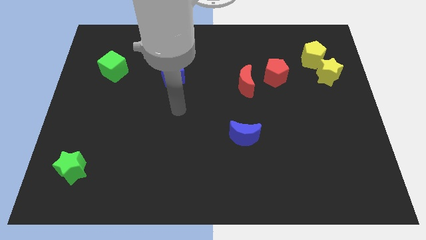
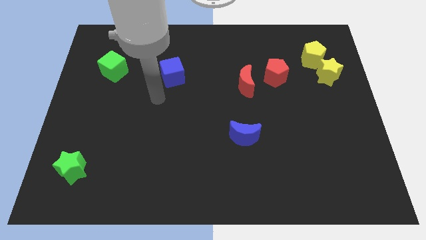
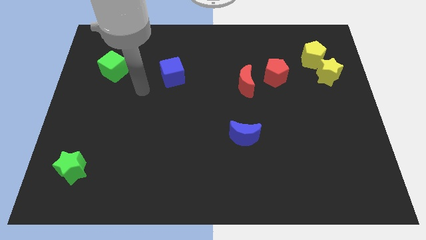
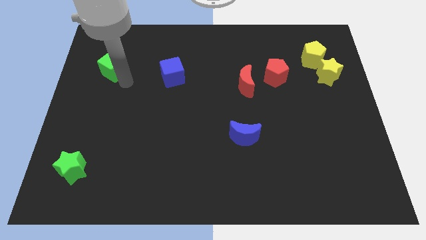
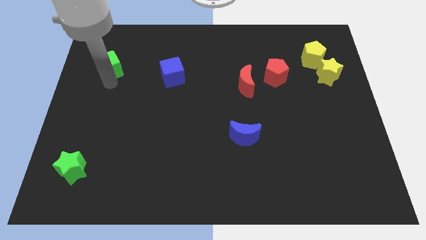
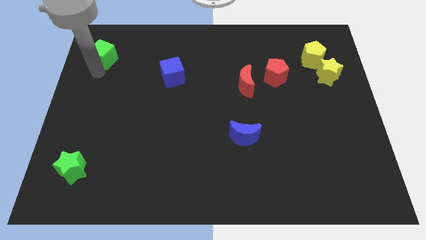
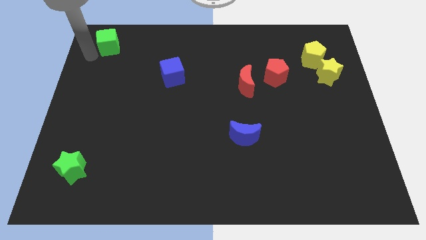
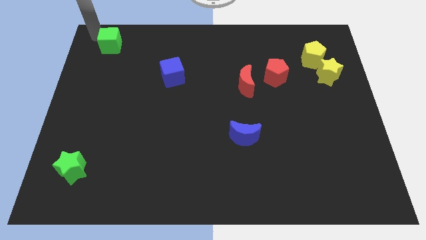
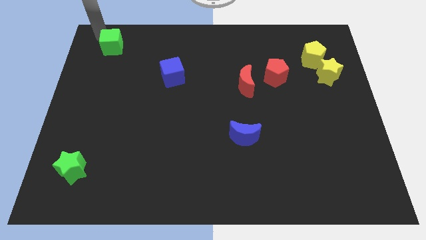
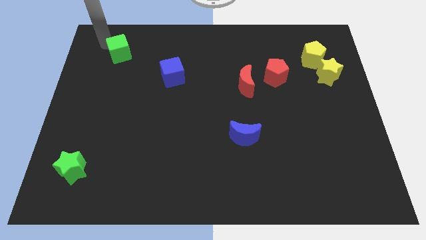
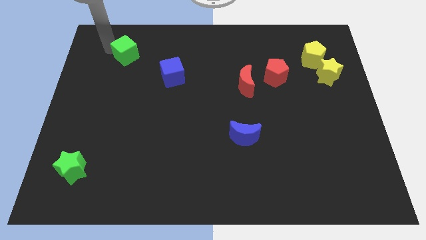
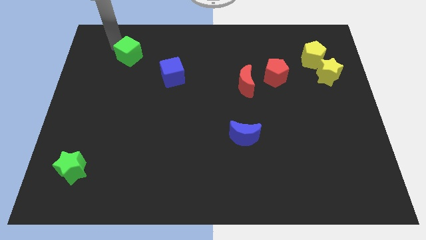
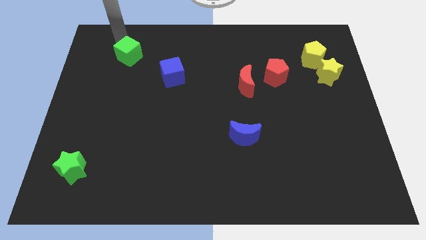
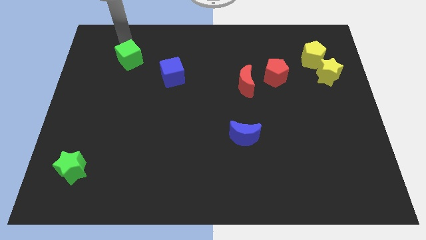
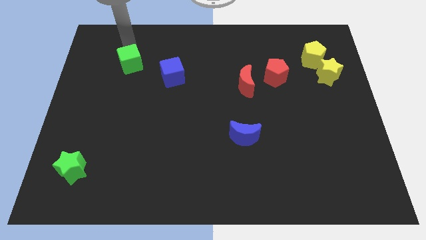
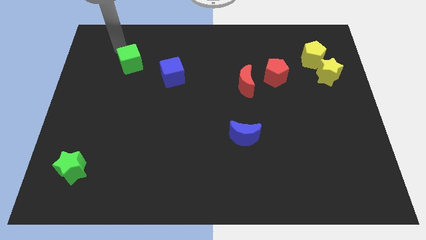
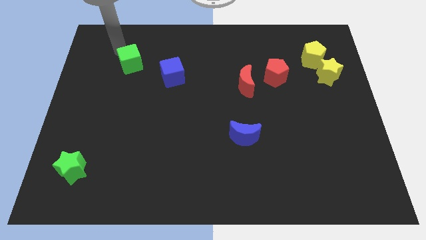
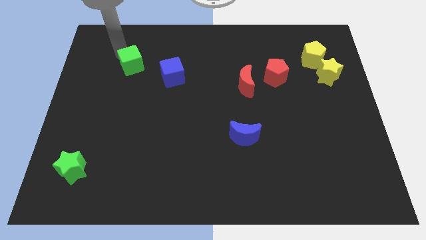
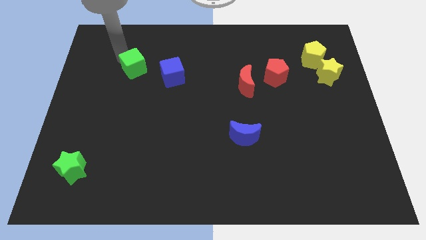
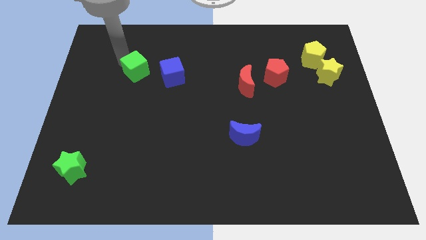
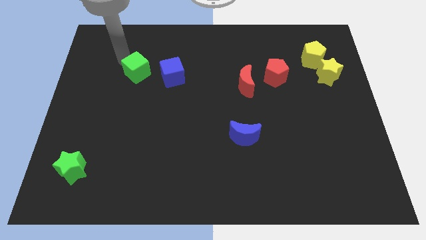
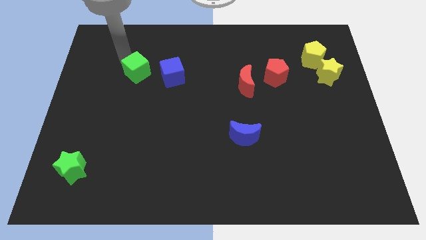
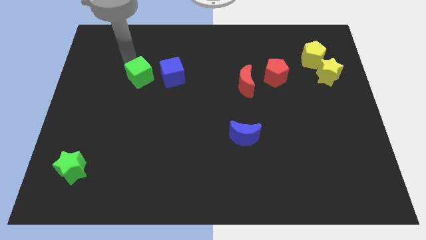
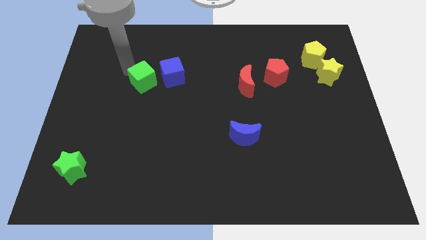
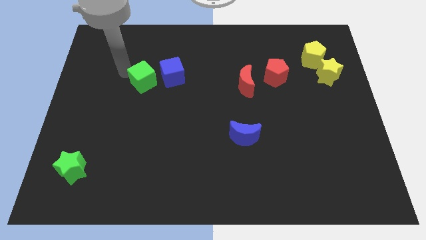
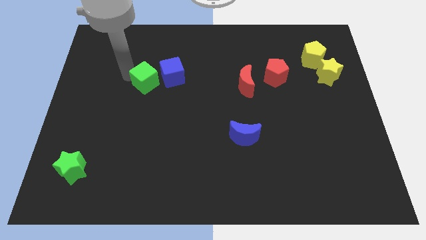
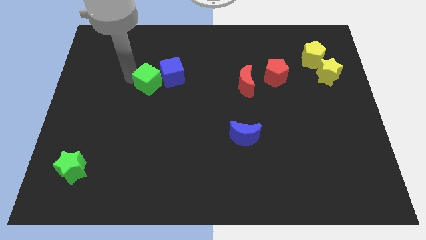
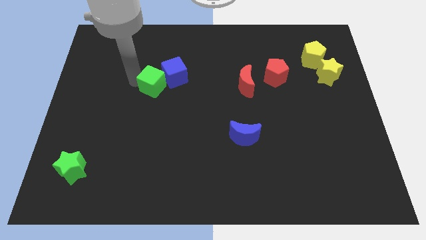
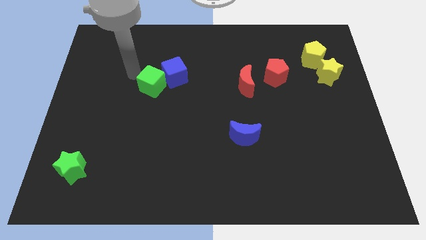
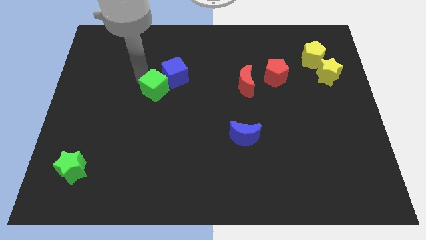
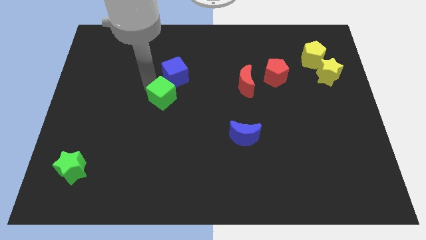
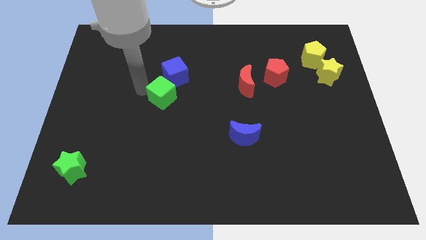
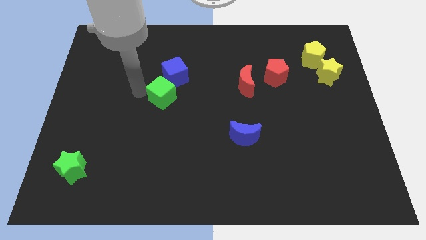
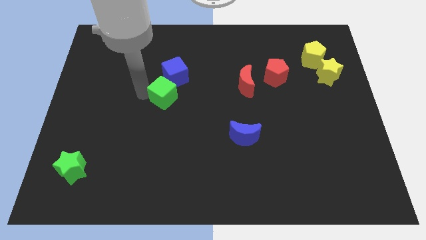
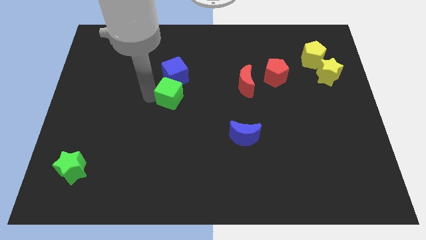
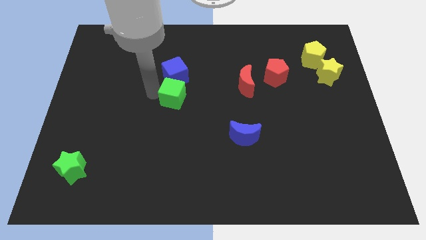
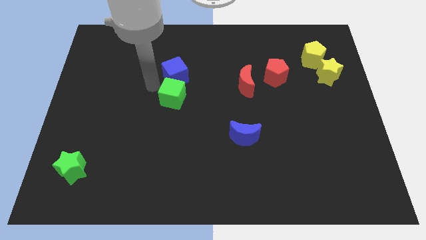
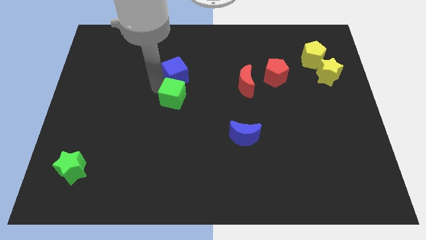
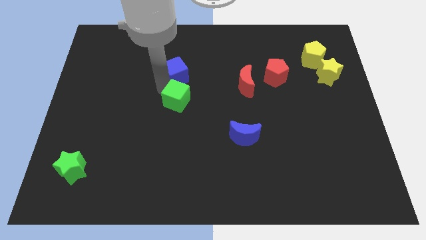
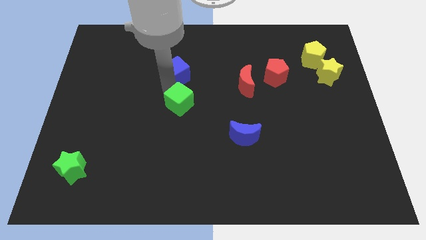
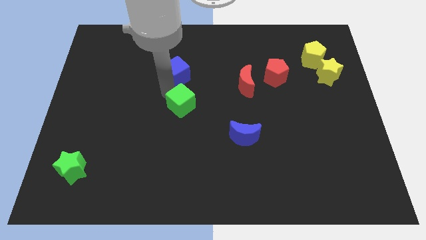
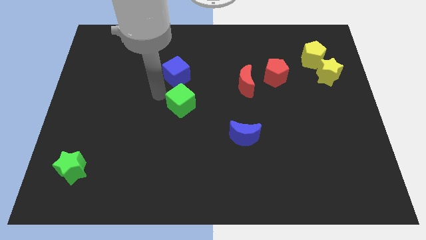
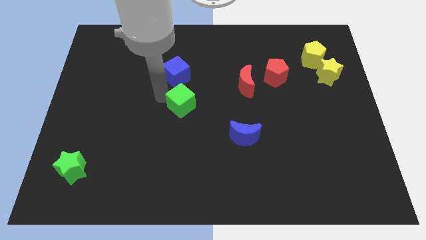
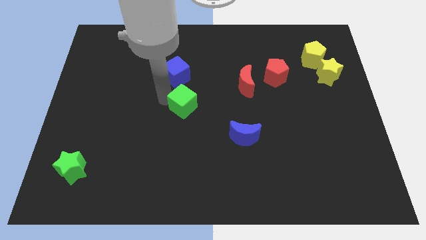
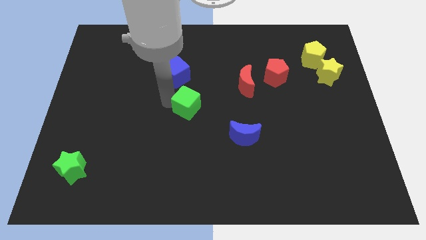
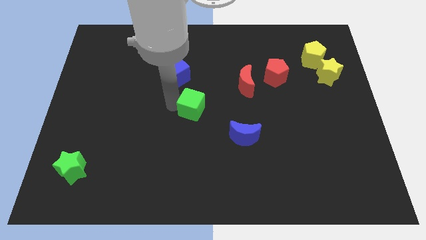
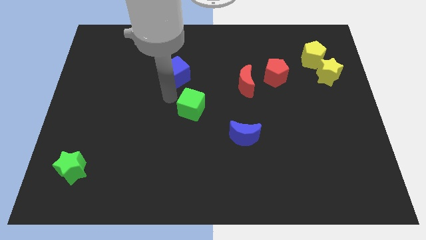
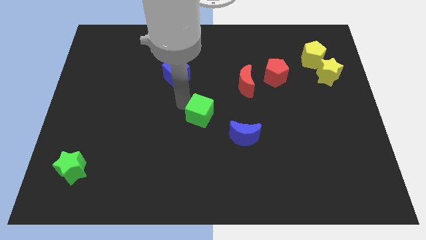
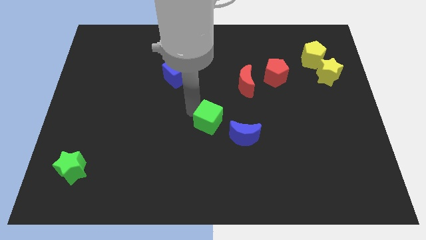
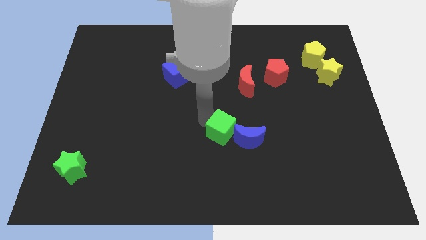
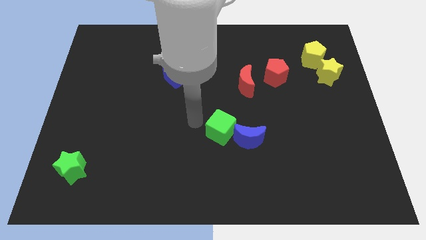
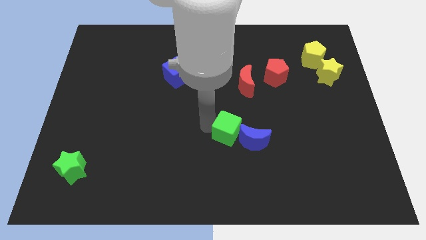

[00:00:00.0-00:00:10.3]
put the green cube to the blue moon

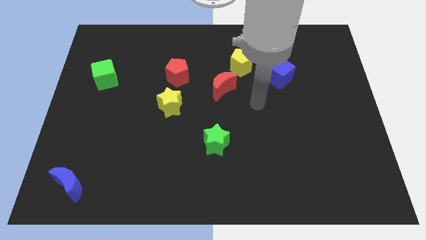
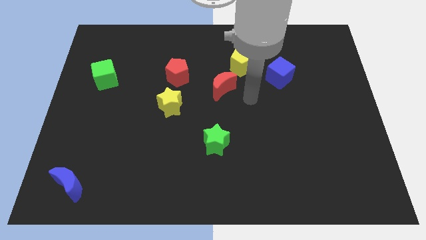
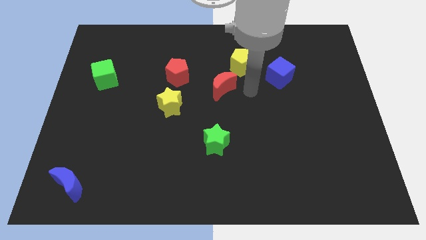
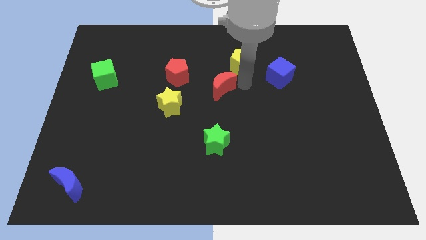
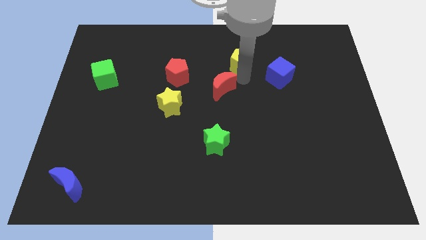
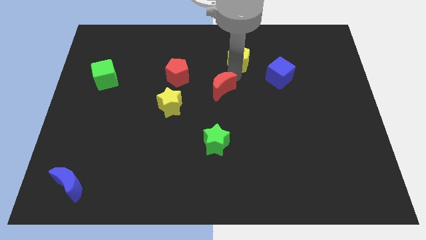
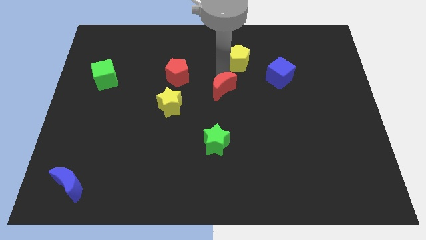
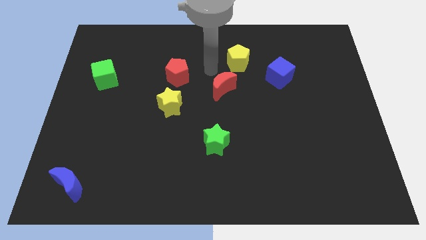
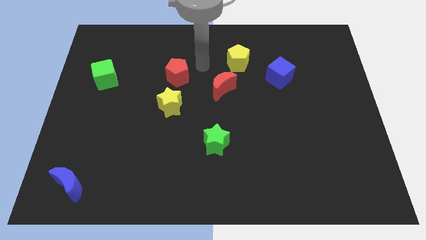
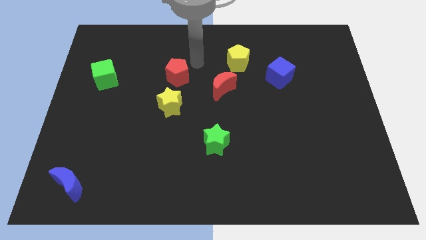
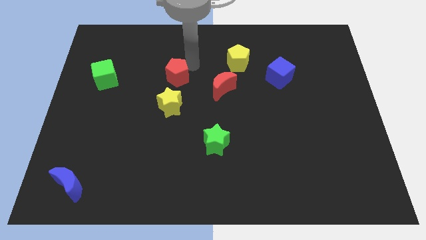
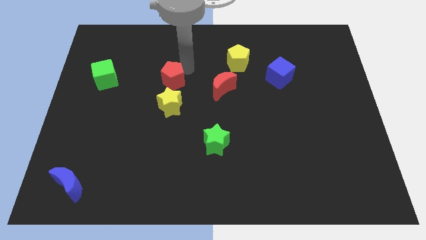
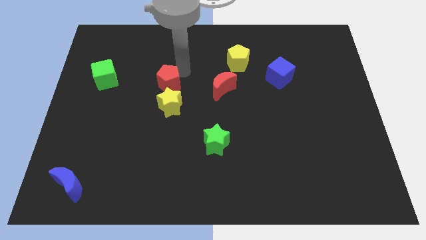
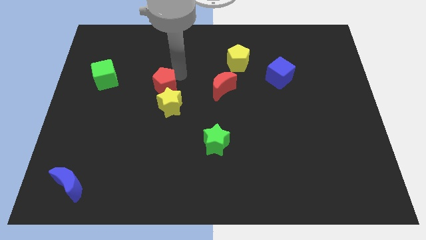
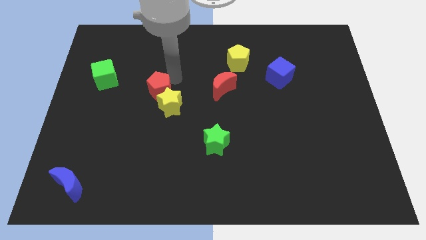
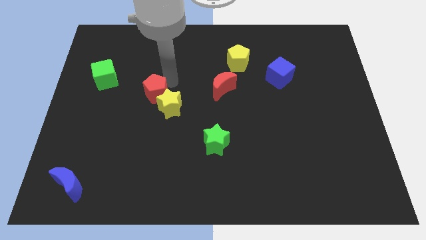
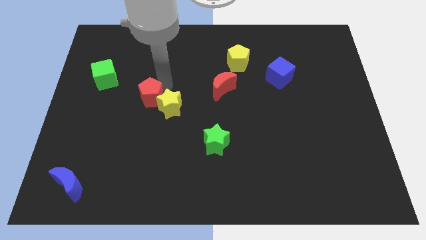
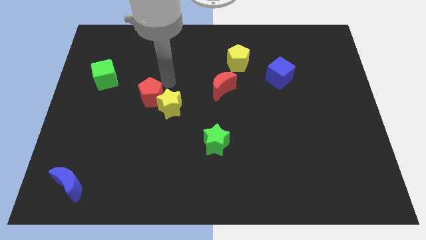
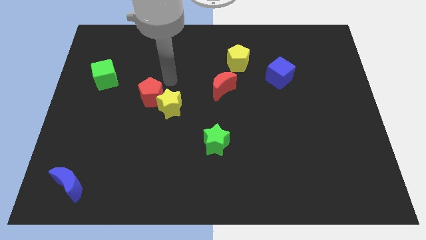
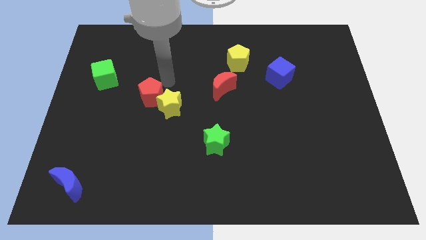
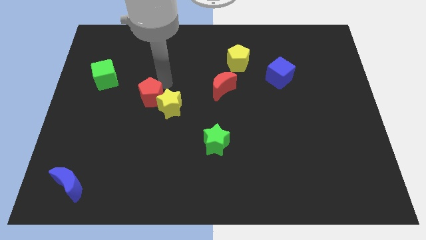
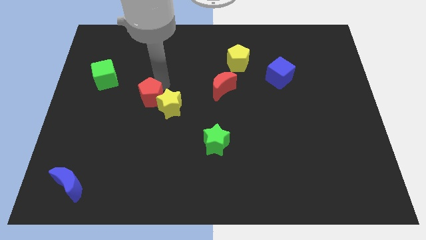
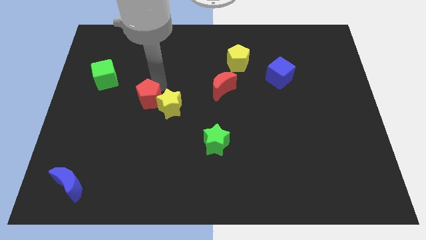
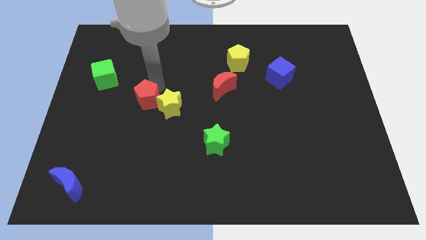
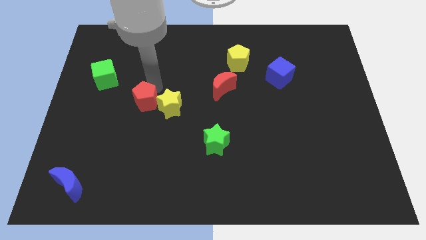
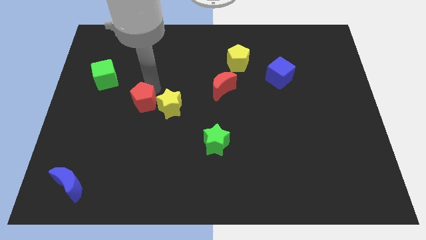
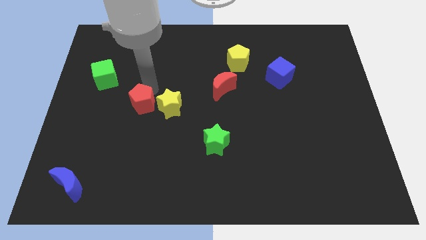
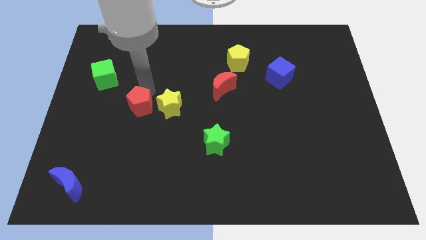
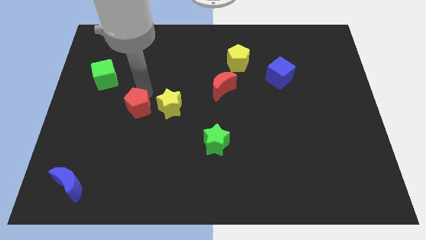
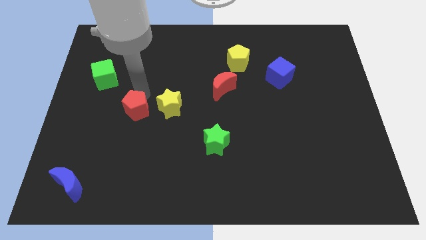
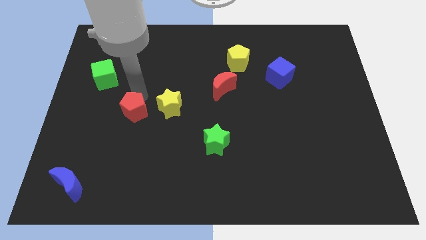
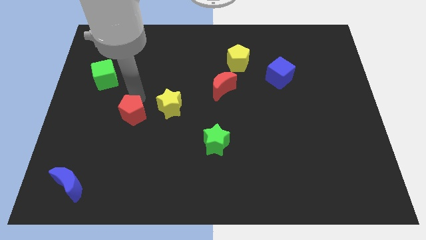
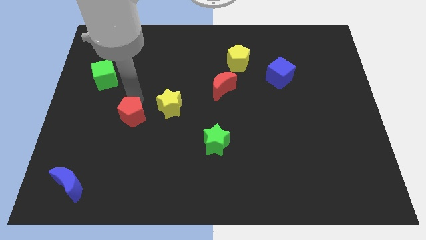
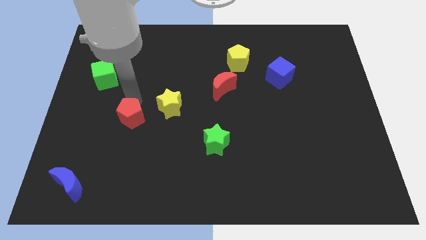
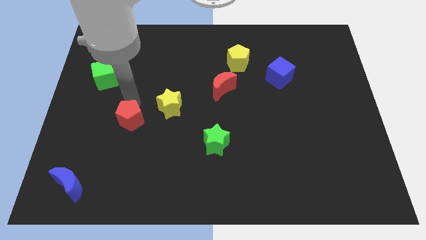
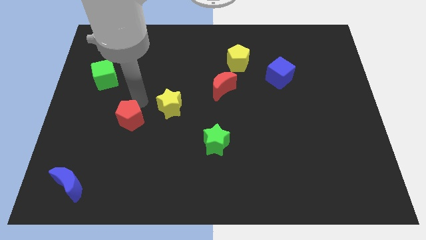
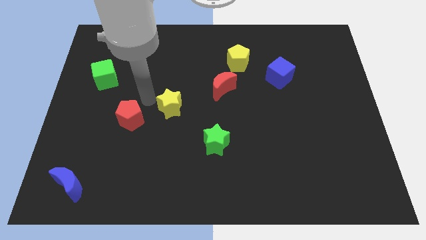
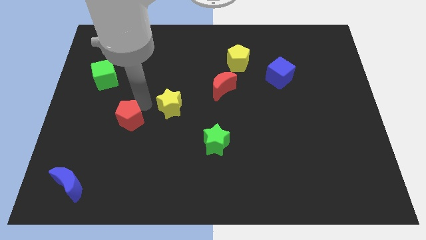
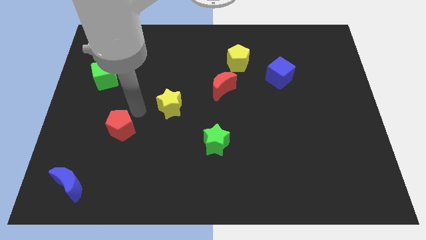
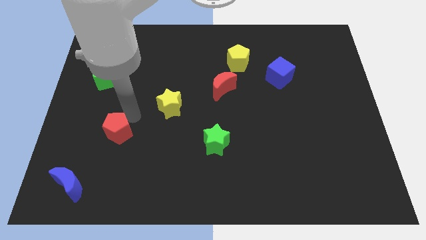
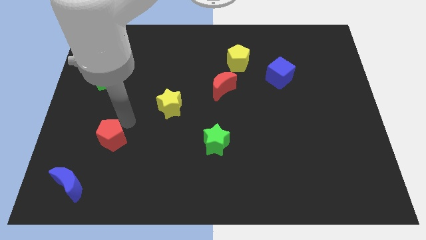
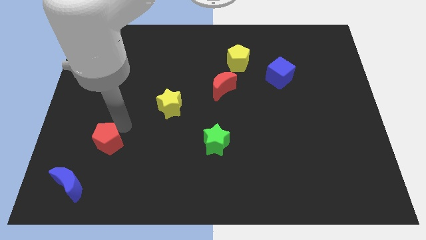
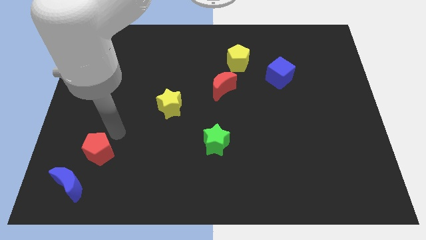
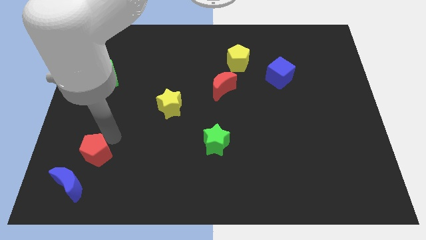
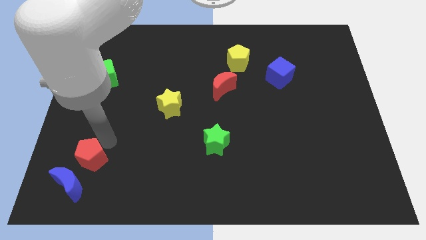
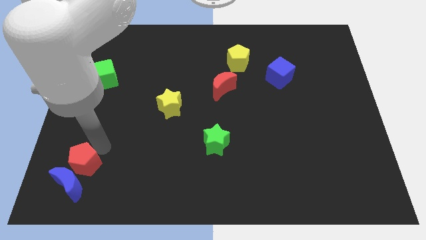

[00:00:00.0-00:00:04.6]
put the red pentagon to the blue moon
